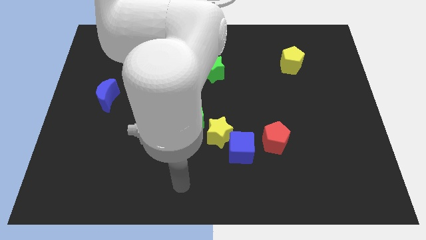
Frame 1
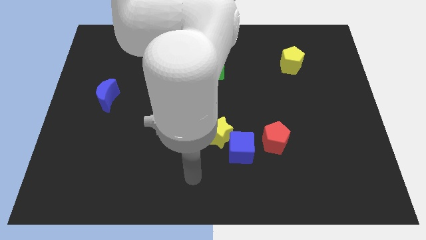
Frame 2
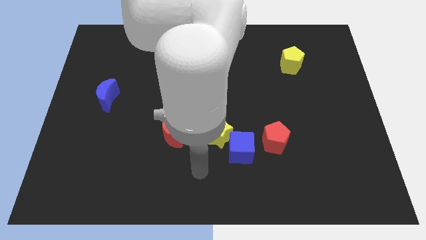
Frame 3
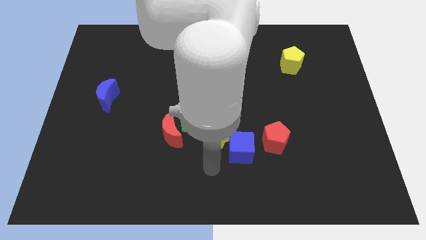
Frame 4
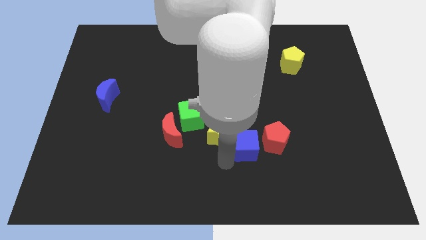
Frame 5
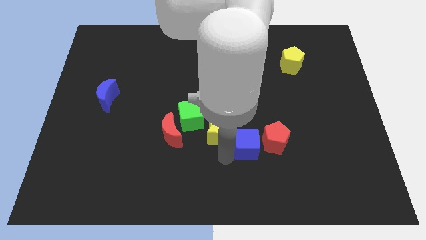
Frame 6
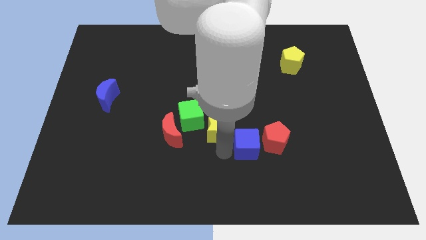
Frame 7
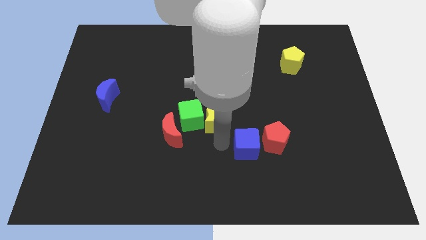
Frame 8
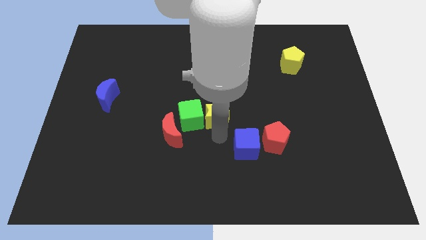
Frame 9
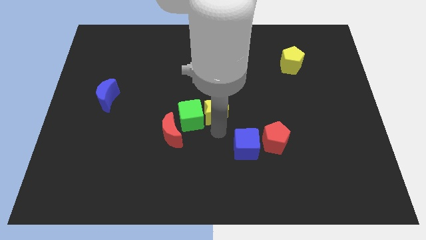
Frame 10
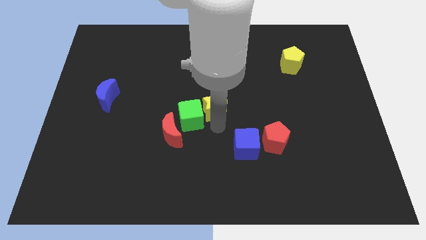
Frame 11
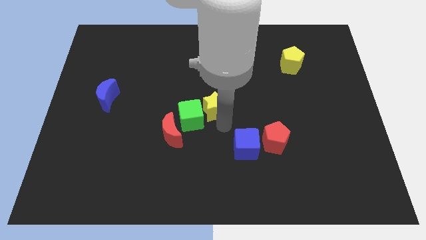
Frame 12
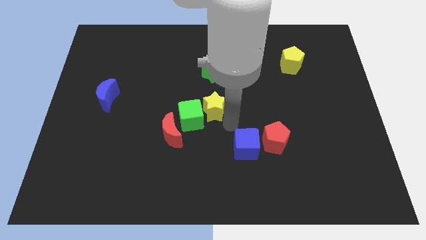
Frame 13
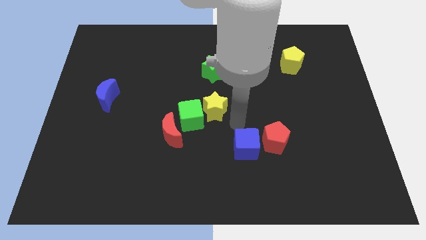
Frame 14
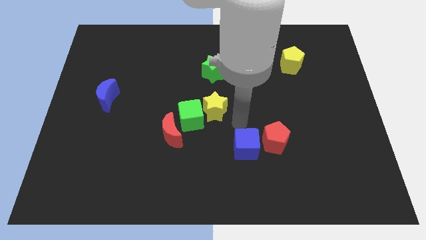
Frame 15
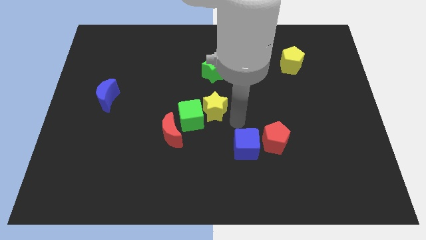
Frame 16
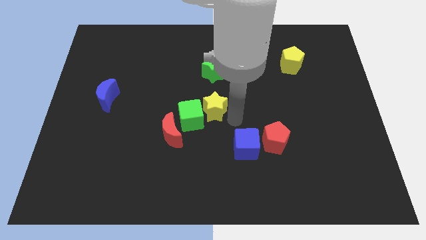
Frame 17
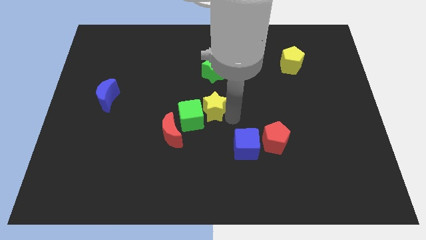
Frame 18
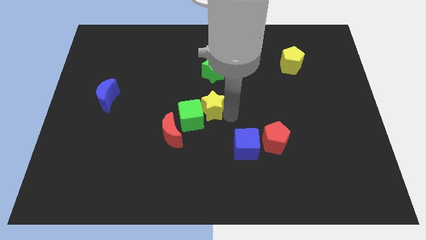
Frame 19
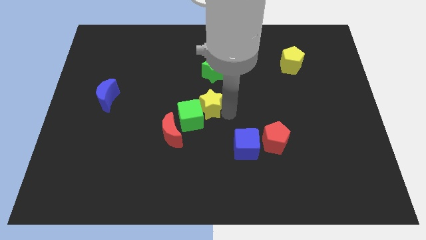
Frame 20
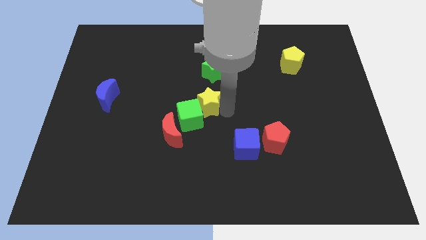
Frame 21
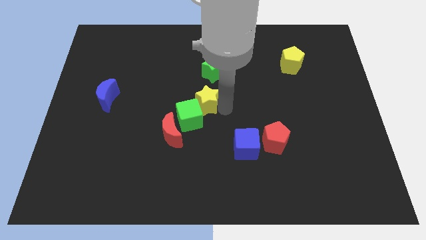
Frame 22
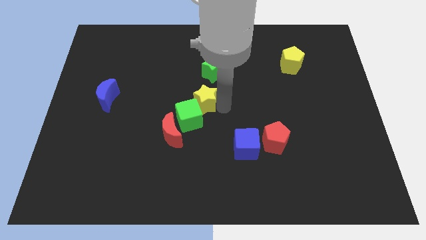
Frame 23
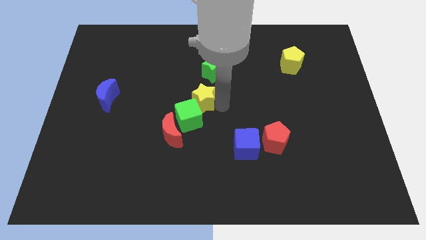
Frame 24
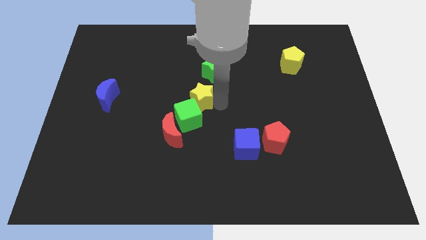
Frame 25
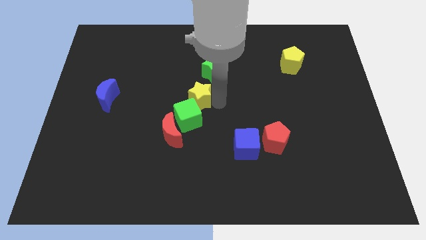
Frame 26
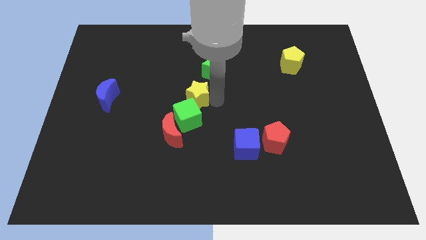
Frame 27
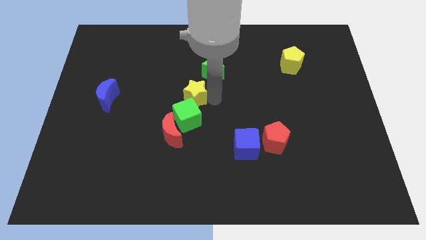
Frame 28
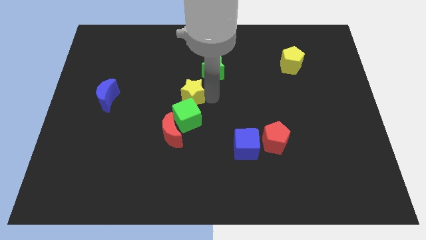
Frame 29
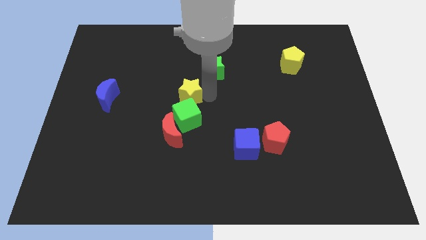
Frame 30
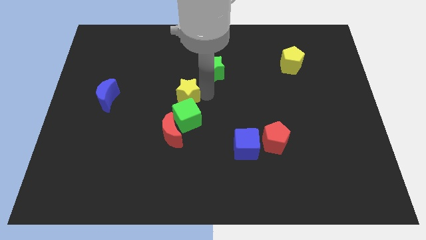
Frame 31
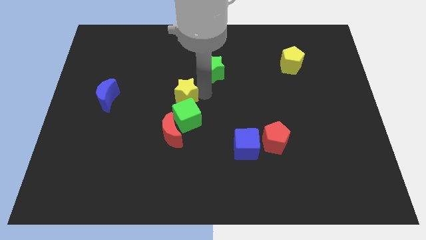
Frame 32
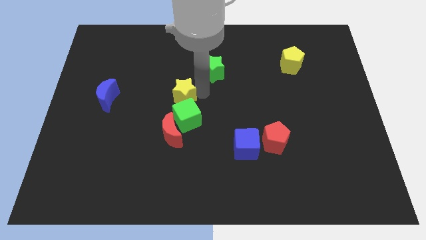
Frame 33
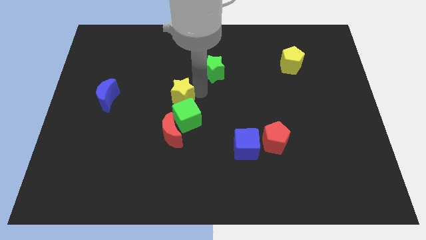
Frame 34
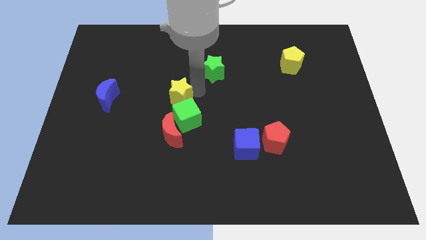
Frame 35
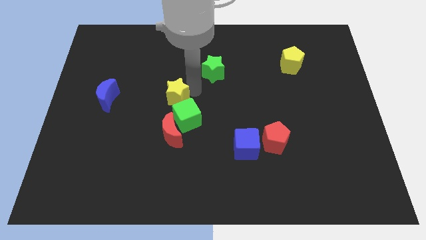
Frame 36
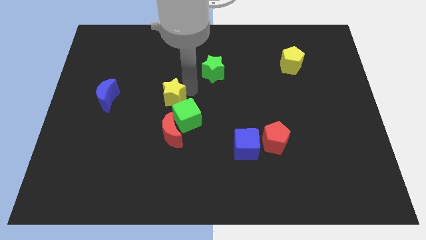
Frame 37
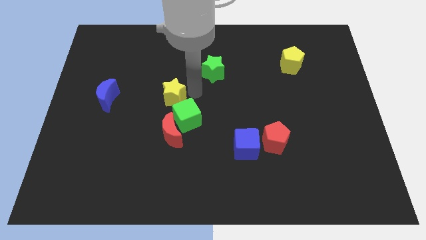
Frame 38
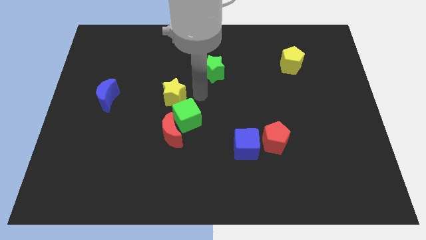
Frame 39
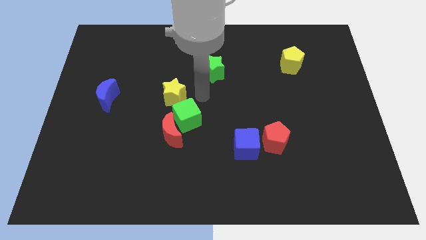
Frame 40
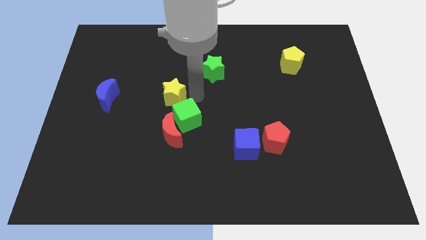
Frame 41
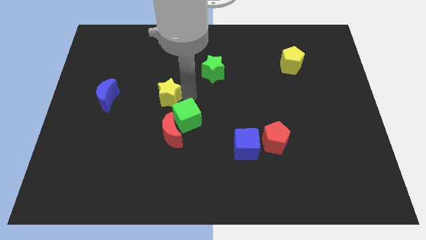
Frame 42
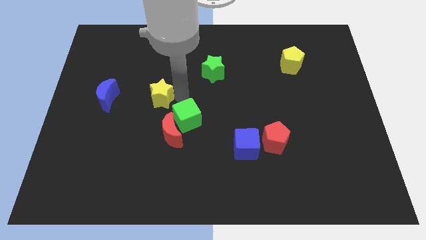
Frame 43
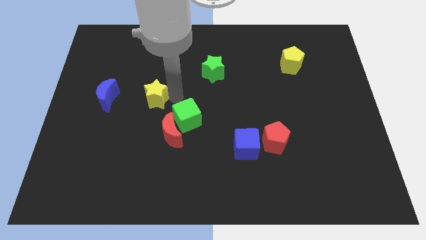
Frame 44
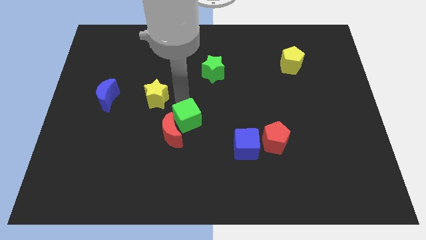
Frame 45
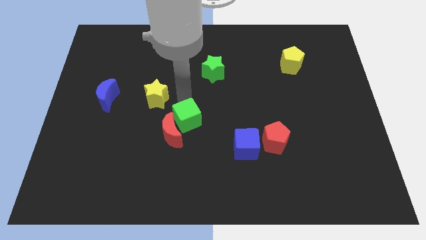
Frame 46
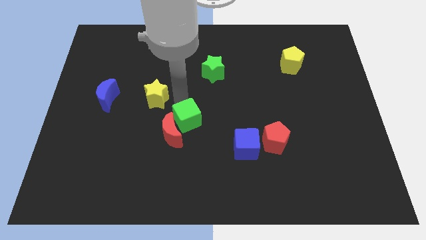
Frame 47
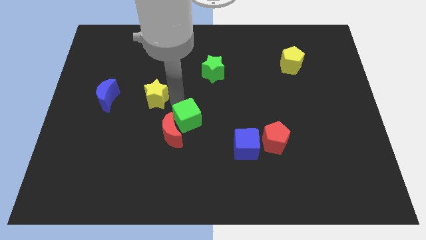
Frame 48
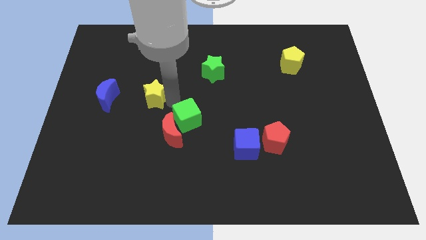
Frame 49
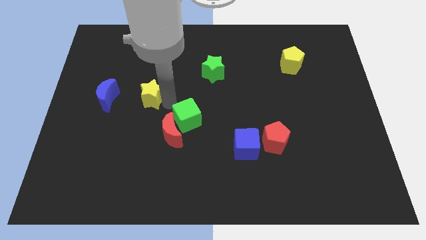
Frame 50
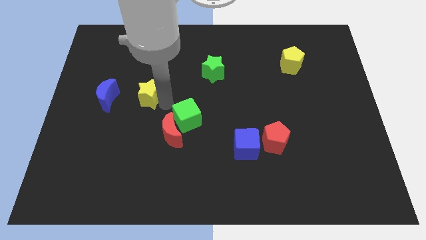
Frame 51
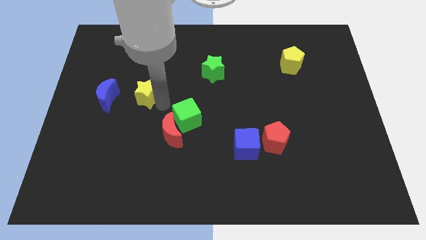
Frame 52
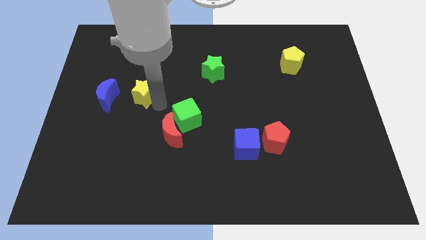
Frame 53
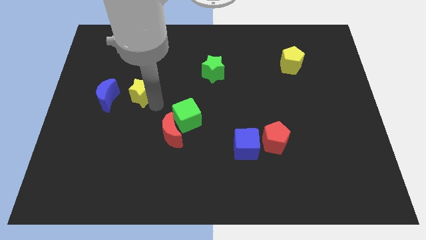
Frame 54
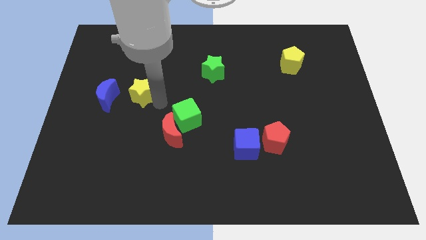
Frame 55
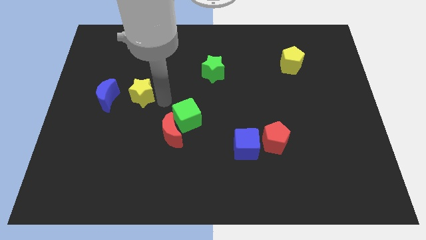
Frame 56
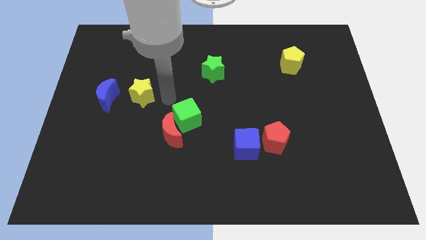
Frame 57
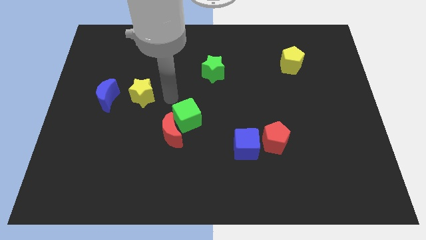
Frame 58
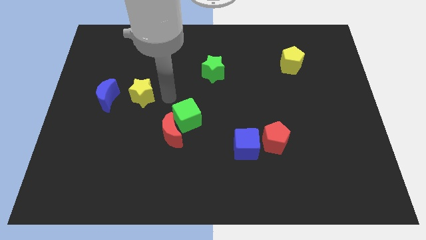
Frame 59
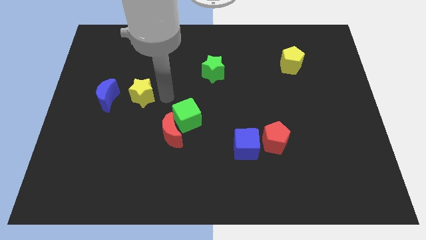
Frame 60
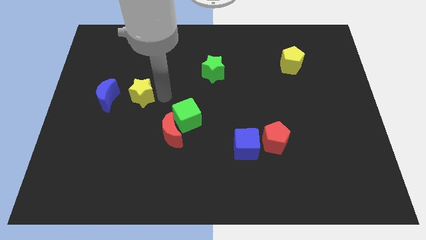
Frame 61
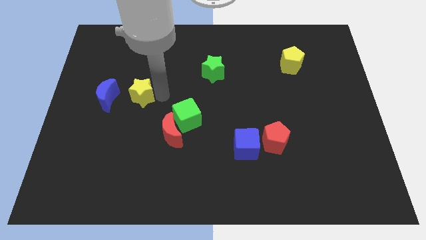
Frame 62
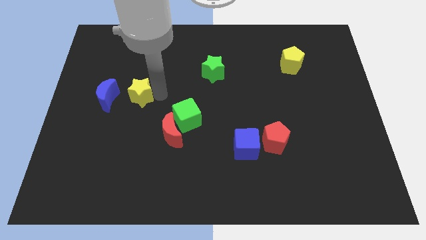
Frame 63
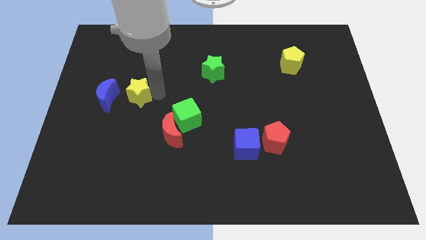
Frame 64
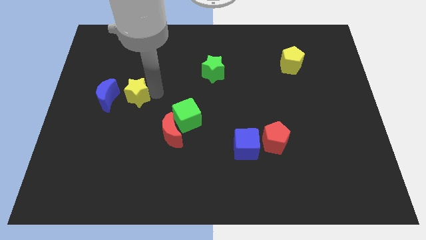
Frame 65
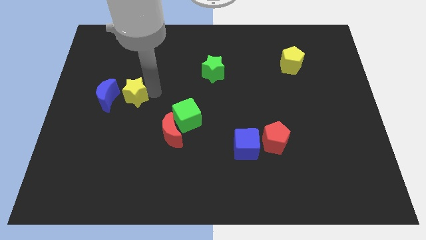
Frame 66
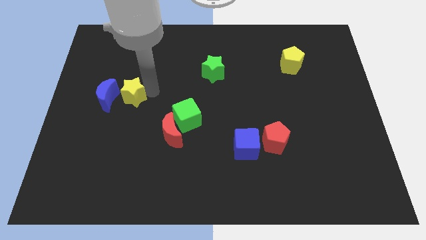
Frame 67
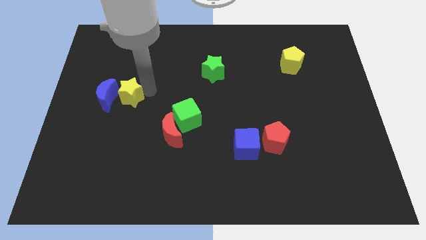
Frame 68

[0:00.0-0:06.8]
put the yellow star to the blue moon

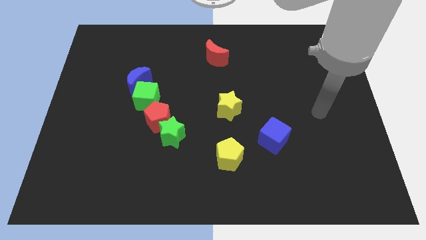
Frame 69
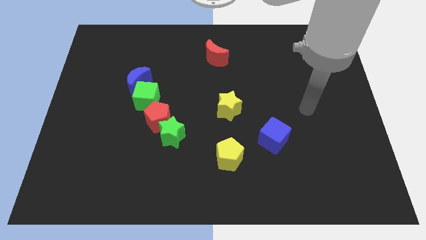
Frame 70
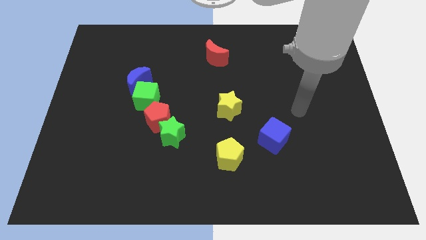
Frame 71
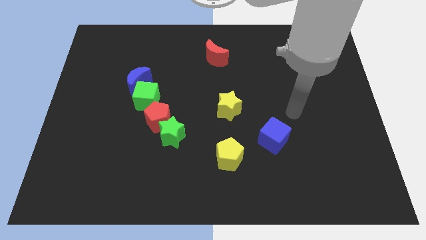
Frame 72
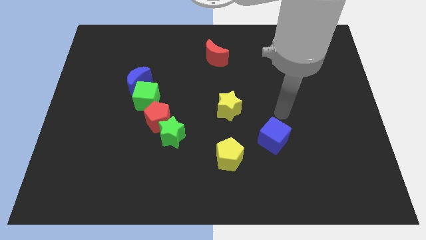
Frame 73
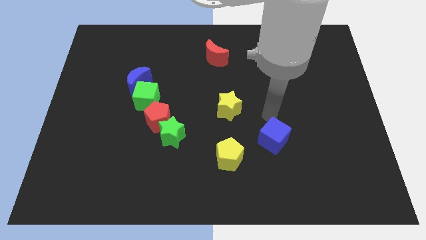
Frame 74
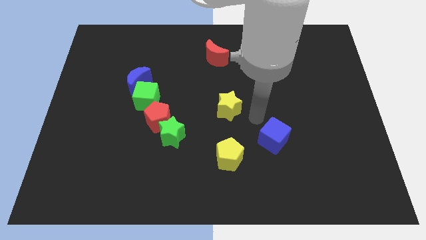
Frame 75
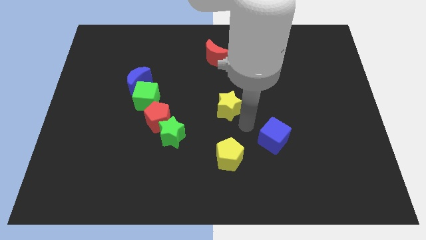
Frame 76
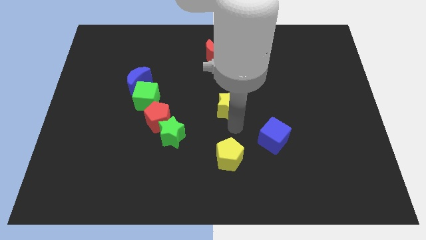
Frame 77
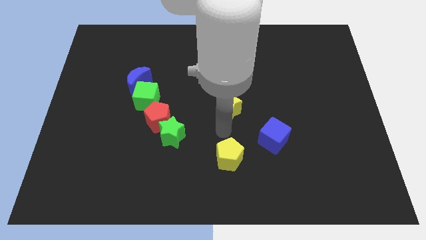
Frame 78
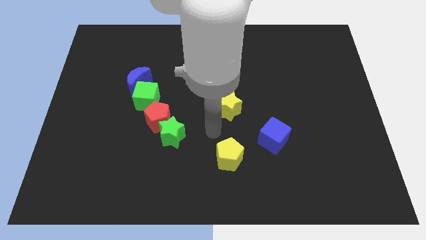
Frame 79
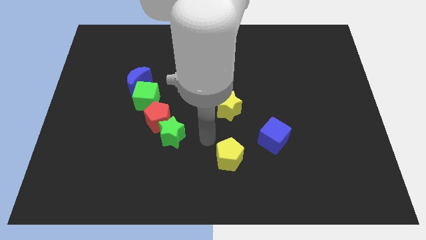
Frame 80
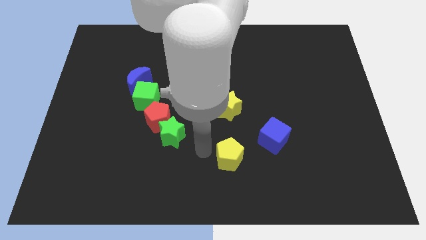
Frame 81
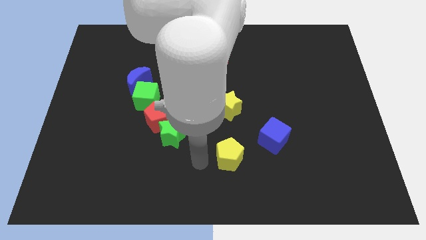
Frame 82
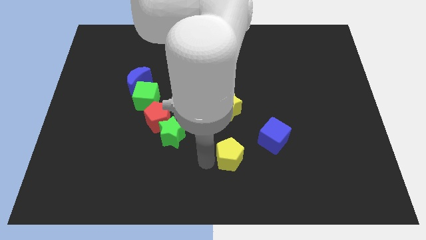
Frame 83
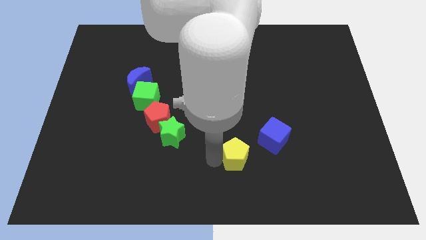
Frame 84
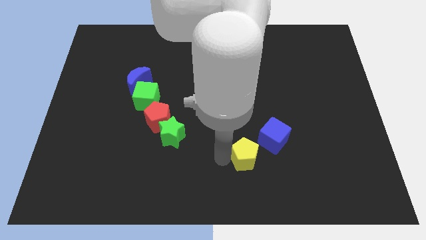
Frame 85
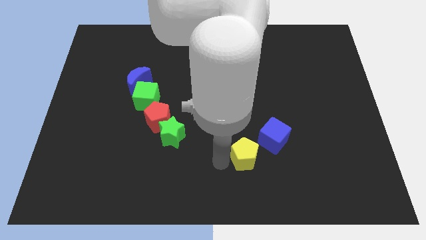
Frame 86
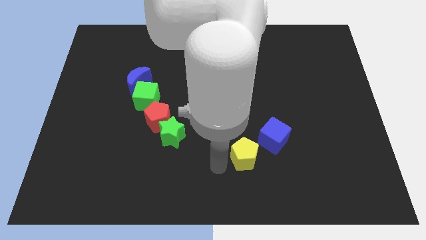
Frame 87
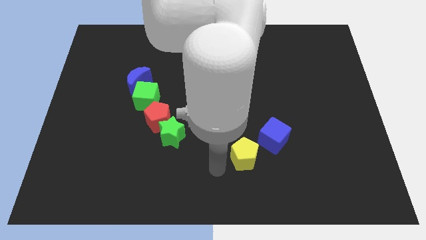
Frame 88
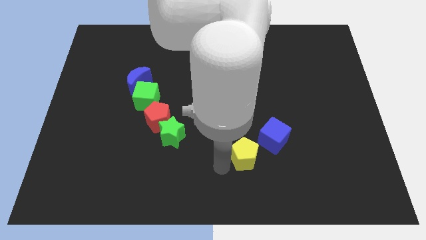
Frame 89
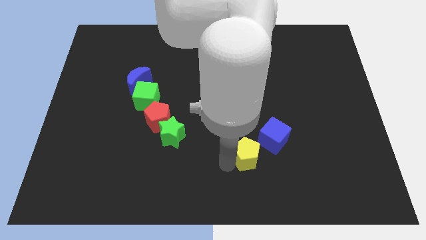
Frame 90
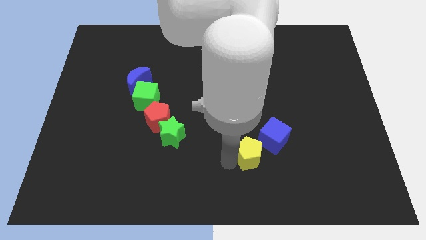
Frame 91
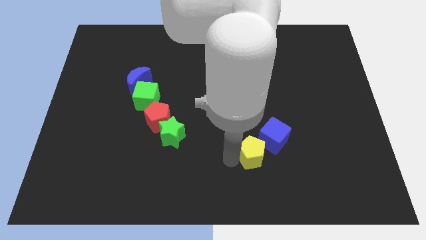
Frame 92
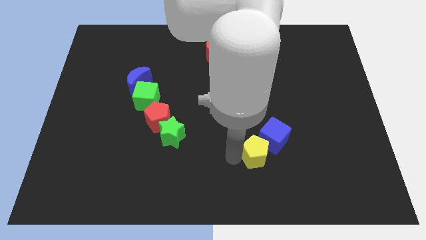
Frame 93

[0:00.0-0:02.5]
push the yellow pentagon next to the blue cube
